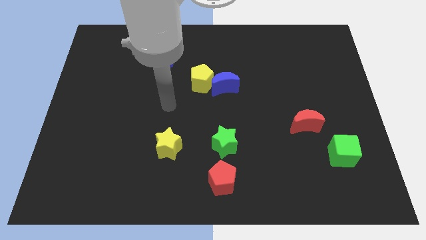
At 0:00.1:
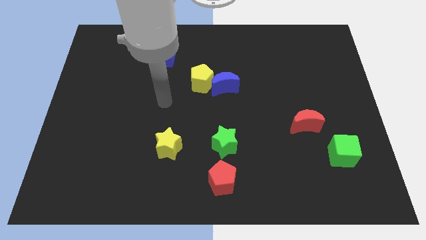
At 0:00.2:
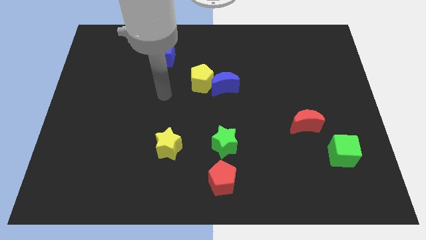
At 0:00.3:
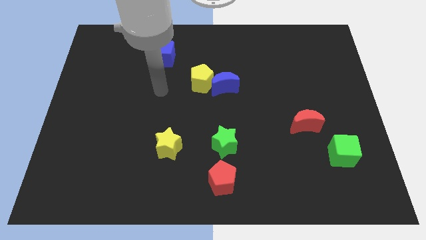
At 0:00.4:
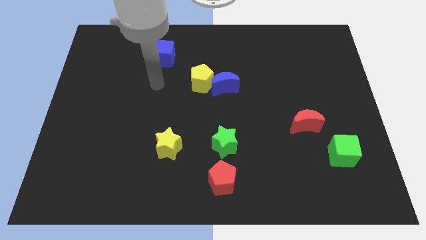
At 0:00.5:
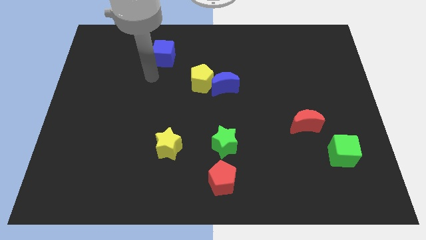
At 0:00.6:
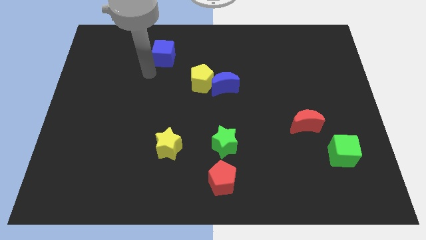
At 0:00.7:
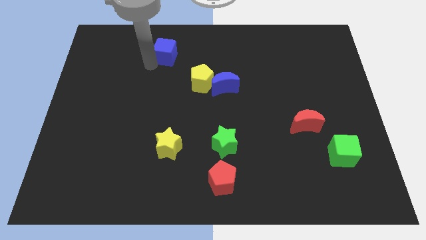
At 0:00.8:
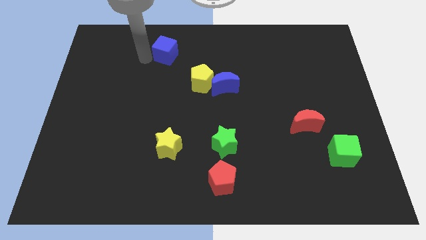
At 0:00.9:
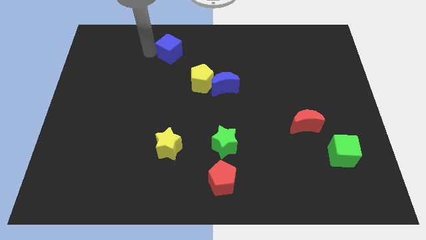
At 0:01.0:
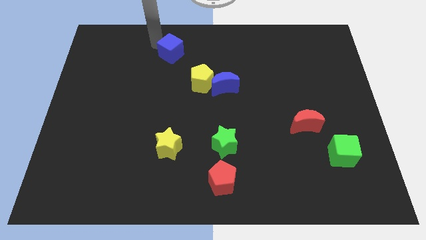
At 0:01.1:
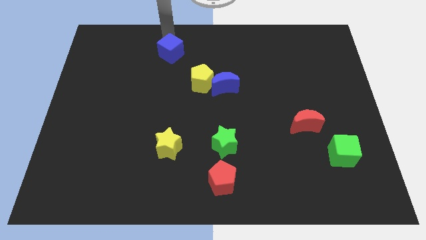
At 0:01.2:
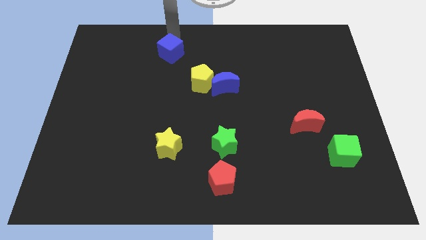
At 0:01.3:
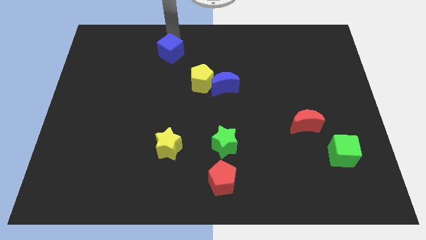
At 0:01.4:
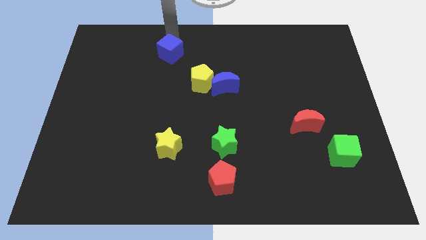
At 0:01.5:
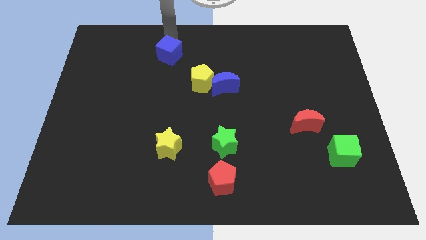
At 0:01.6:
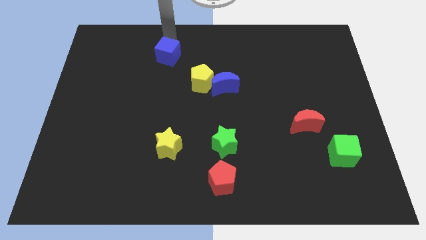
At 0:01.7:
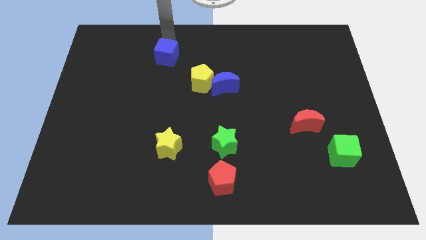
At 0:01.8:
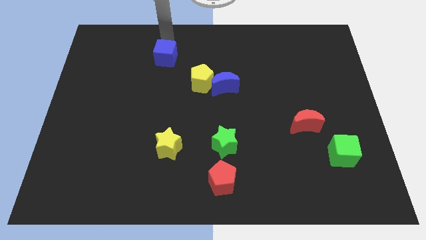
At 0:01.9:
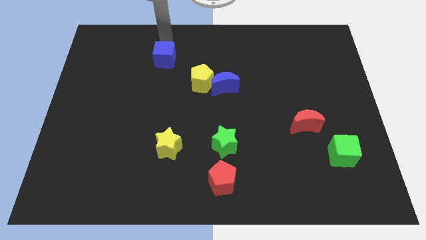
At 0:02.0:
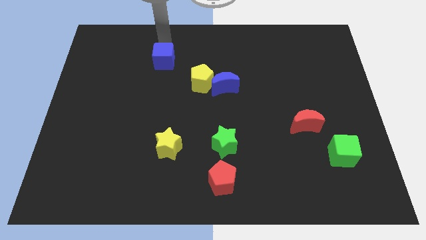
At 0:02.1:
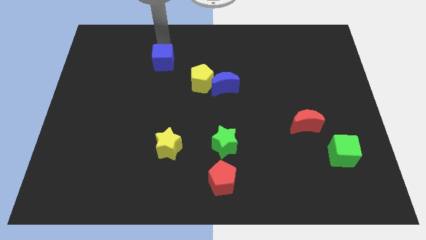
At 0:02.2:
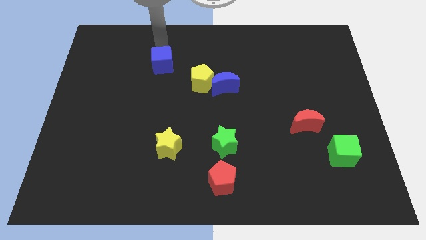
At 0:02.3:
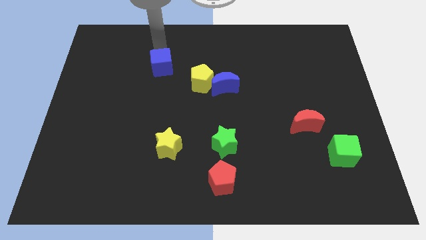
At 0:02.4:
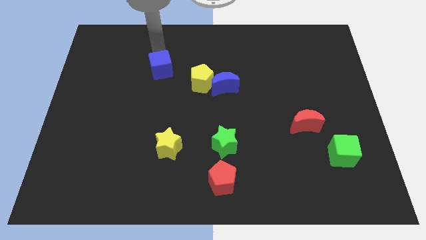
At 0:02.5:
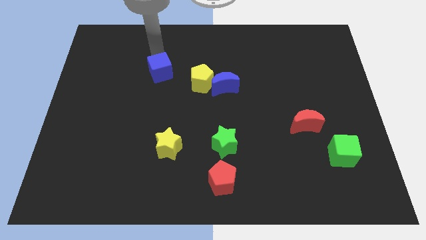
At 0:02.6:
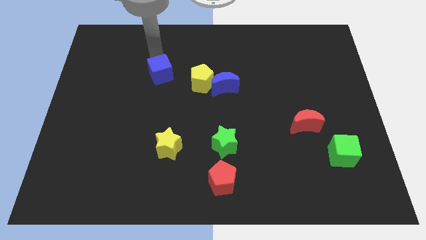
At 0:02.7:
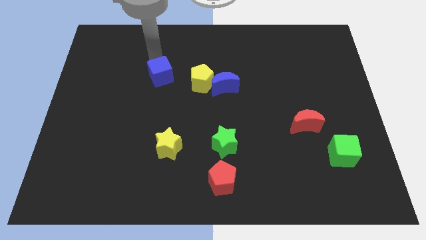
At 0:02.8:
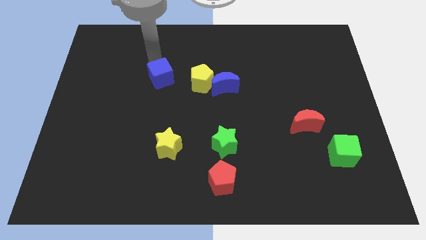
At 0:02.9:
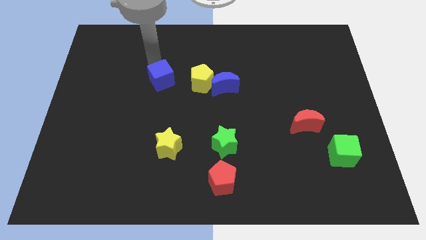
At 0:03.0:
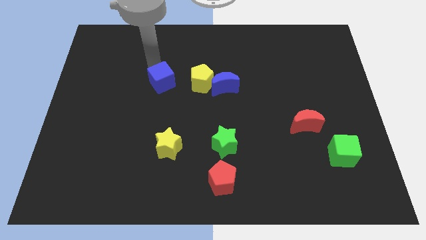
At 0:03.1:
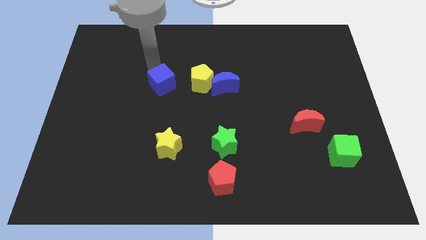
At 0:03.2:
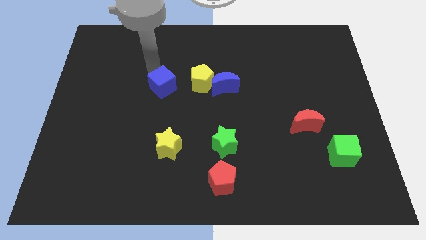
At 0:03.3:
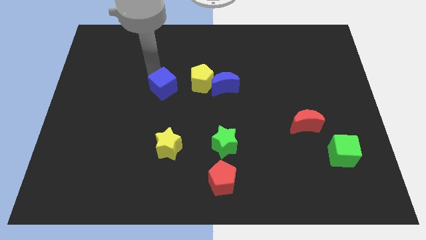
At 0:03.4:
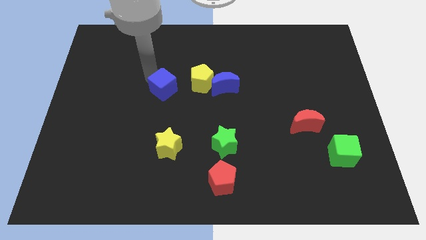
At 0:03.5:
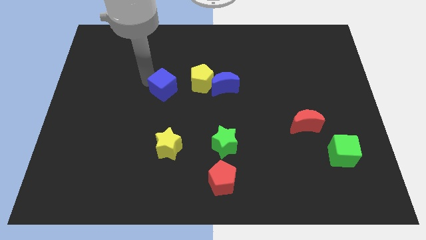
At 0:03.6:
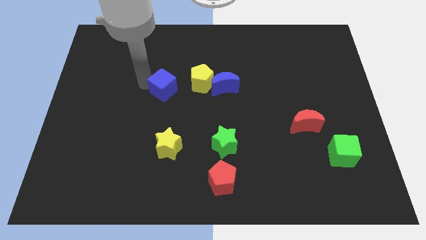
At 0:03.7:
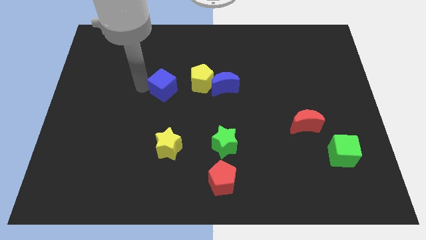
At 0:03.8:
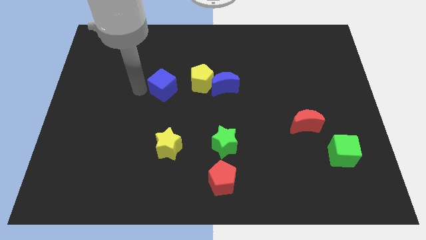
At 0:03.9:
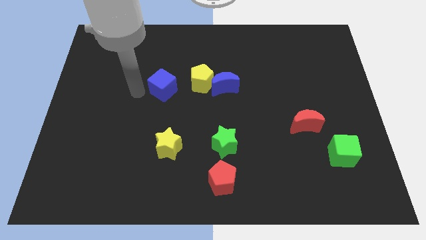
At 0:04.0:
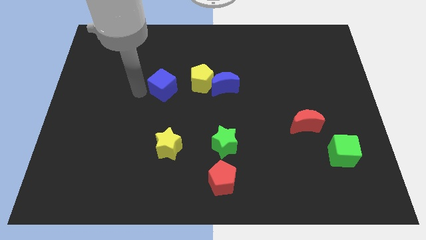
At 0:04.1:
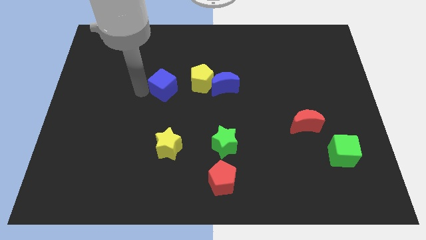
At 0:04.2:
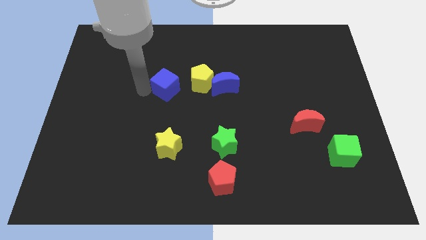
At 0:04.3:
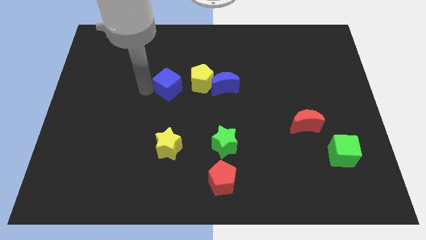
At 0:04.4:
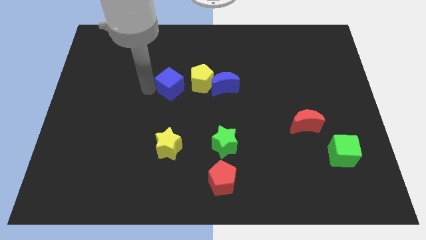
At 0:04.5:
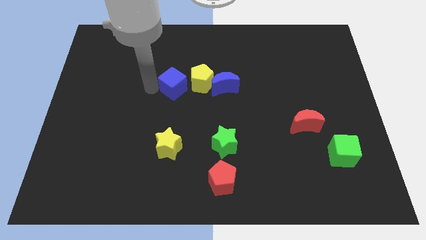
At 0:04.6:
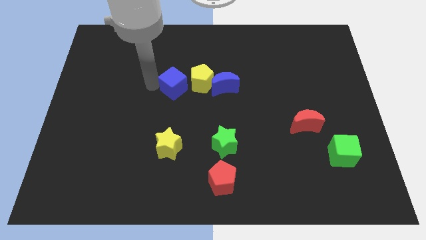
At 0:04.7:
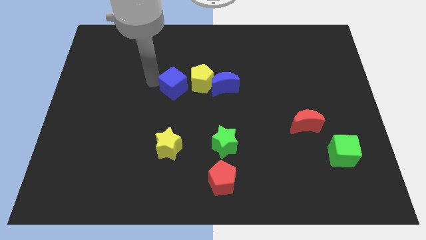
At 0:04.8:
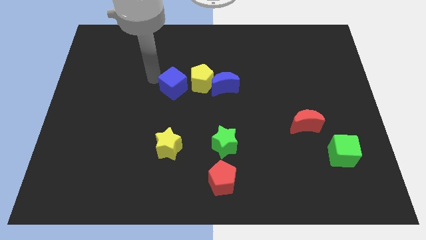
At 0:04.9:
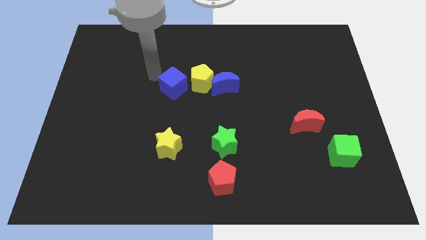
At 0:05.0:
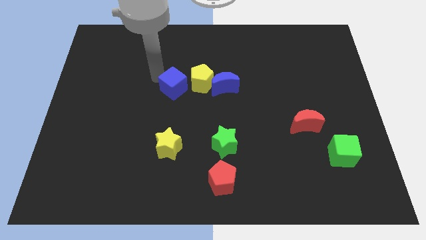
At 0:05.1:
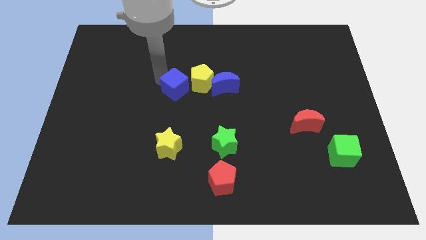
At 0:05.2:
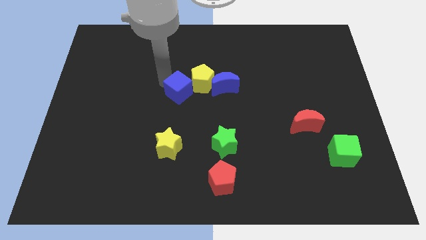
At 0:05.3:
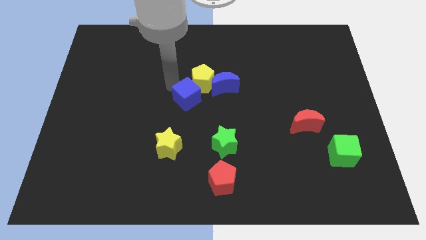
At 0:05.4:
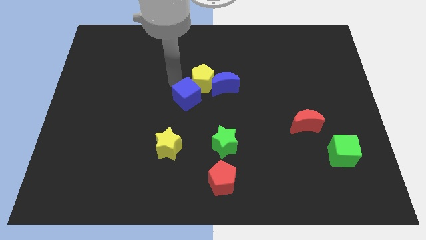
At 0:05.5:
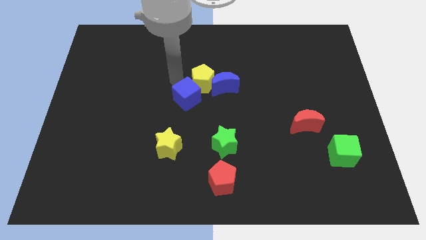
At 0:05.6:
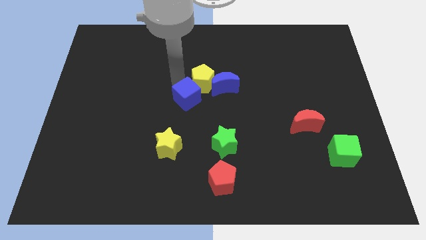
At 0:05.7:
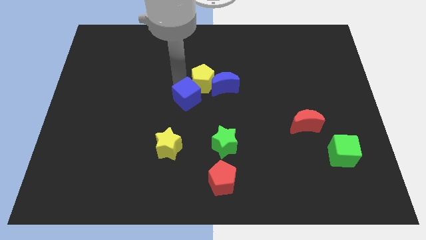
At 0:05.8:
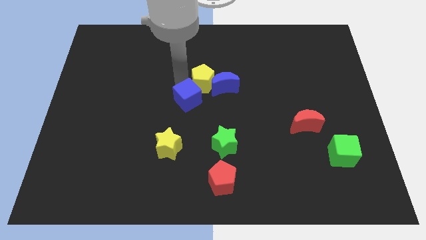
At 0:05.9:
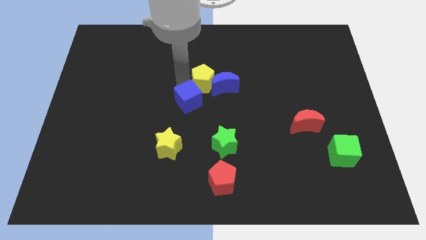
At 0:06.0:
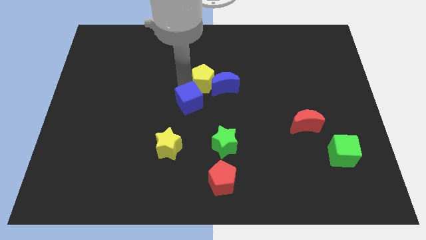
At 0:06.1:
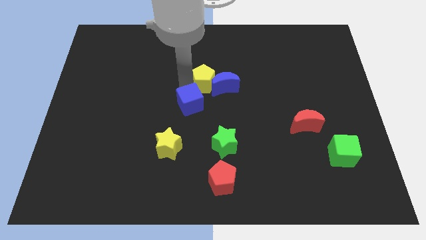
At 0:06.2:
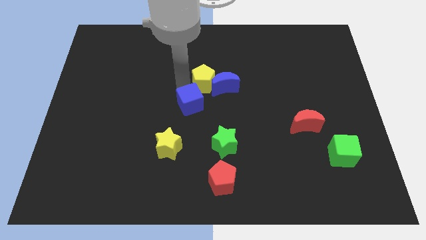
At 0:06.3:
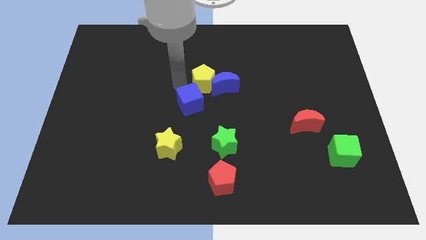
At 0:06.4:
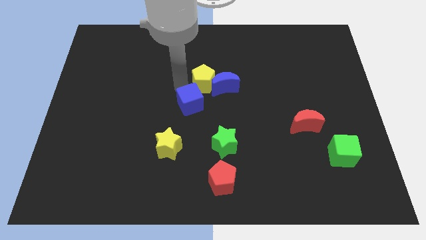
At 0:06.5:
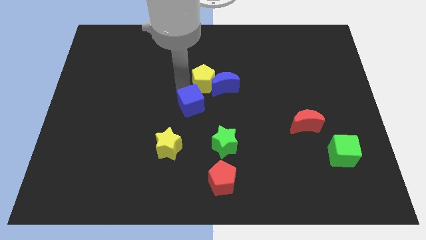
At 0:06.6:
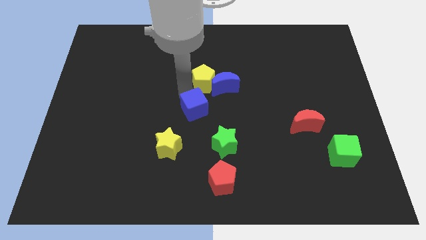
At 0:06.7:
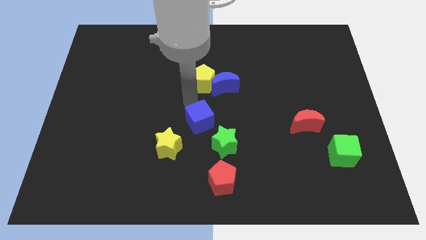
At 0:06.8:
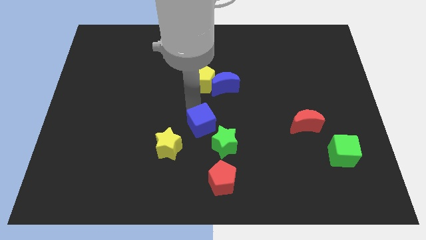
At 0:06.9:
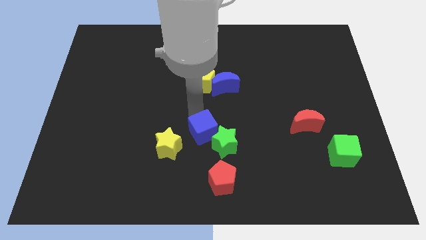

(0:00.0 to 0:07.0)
put the blue cube close to the green star

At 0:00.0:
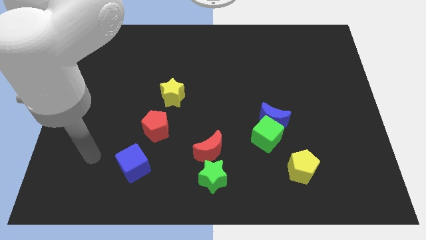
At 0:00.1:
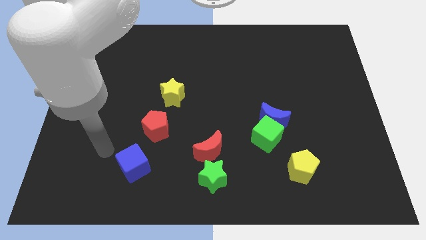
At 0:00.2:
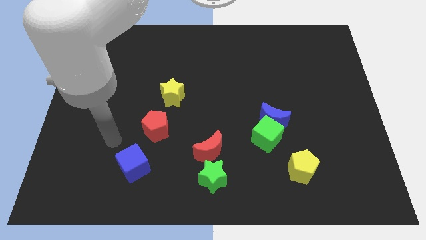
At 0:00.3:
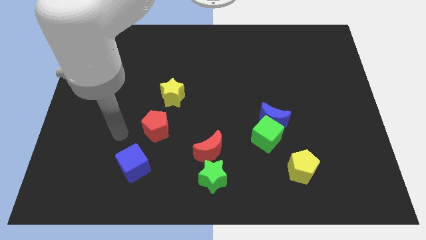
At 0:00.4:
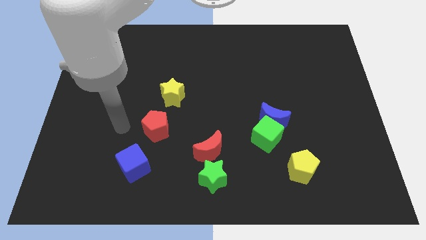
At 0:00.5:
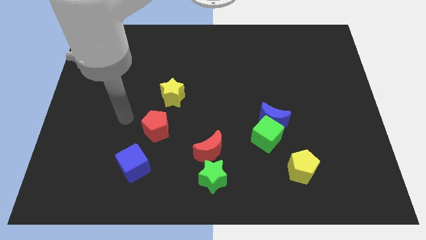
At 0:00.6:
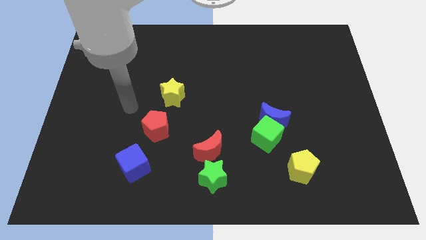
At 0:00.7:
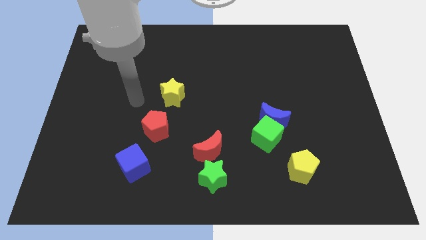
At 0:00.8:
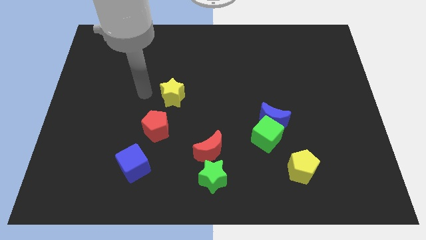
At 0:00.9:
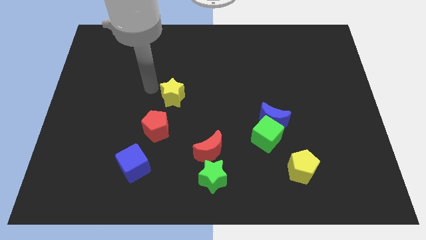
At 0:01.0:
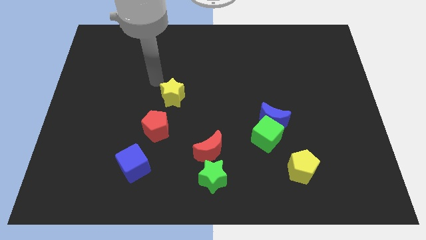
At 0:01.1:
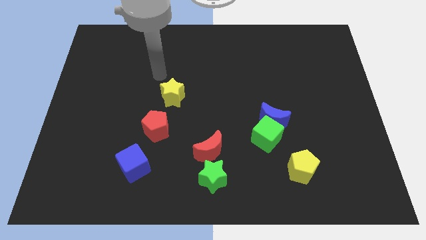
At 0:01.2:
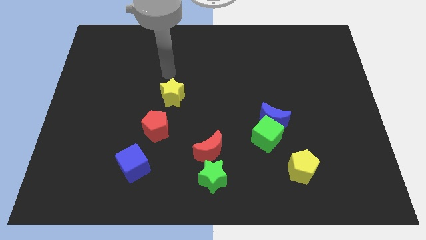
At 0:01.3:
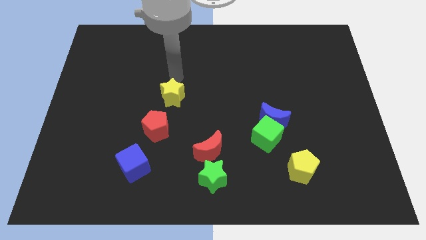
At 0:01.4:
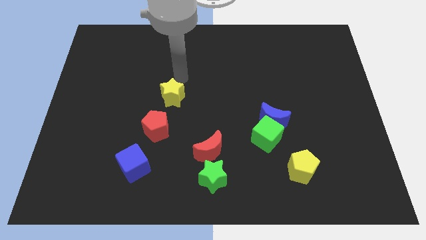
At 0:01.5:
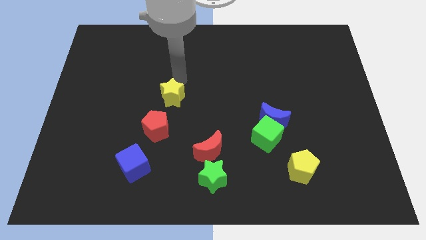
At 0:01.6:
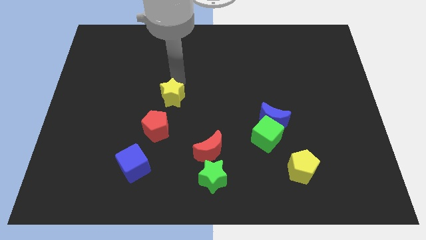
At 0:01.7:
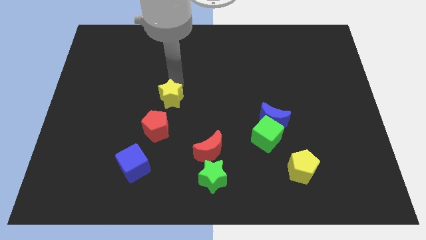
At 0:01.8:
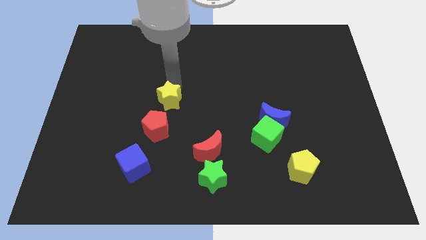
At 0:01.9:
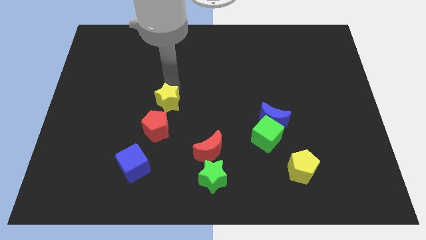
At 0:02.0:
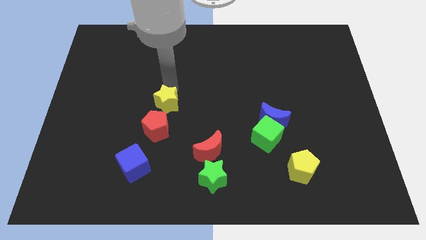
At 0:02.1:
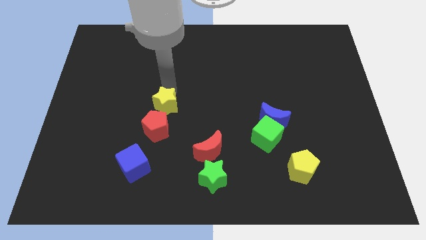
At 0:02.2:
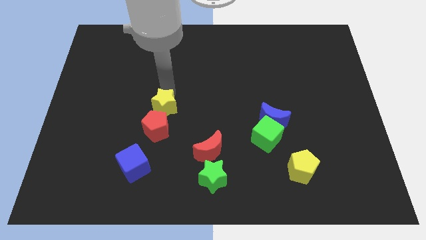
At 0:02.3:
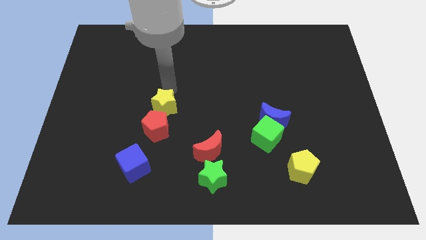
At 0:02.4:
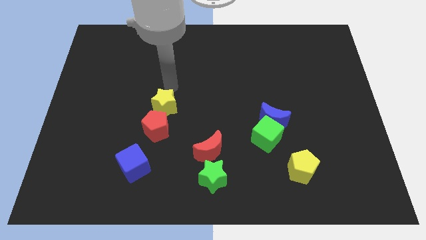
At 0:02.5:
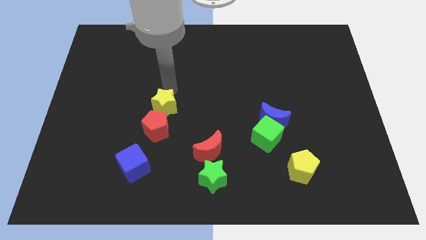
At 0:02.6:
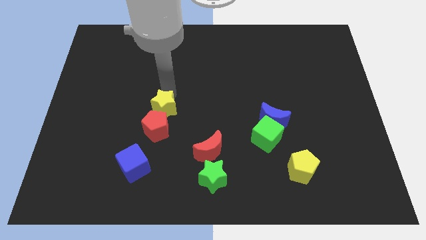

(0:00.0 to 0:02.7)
push the yellow star towards the red pentagon
